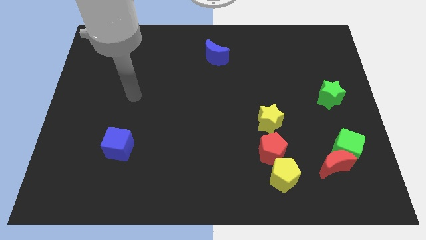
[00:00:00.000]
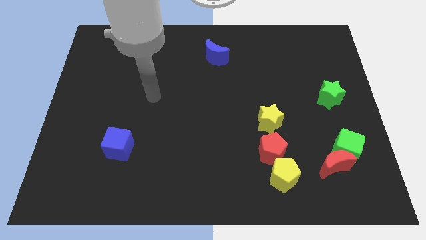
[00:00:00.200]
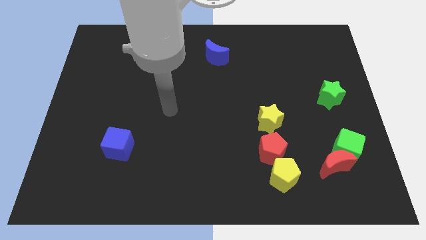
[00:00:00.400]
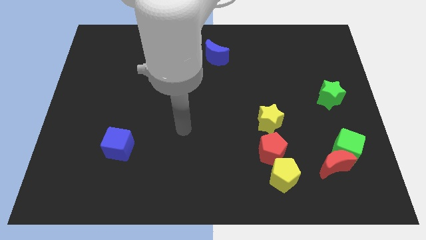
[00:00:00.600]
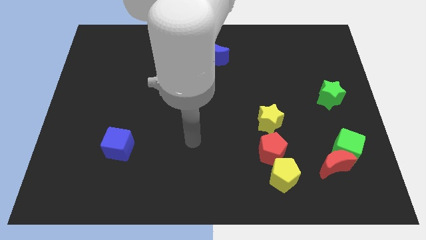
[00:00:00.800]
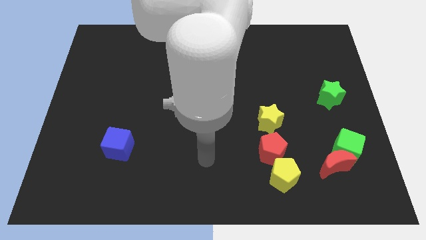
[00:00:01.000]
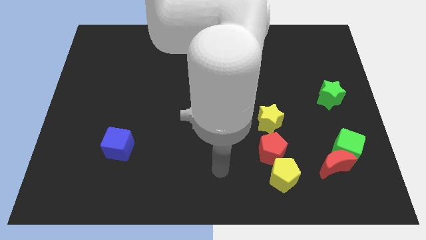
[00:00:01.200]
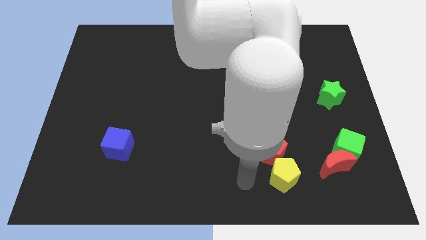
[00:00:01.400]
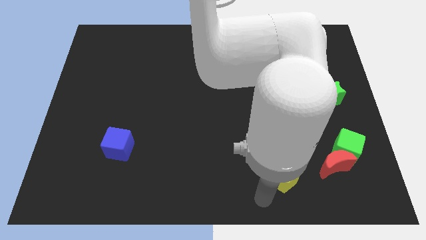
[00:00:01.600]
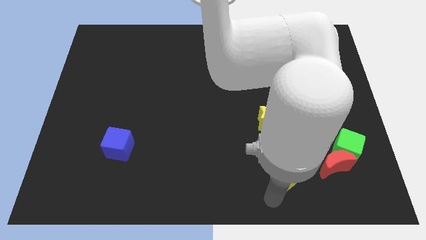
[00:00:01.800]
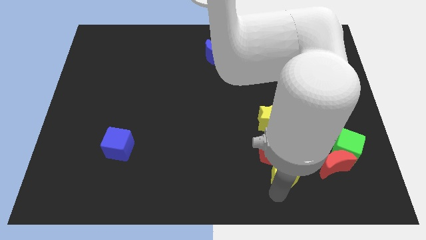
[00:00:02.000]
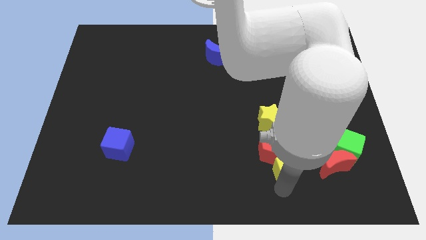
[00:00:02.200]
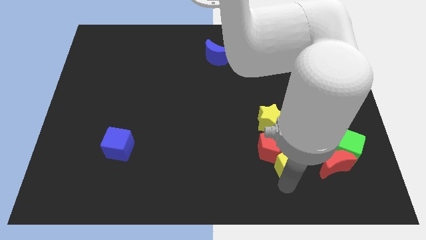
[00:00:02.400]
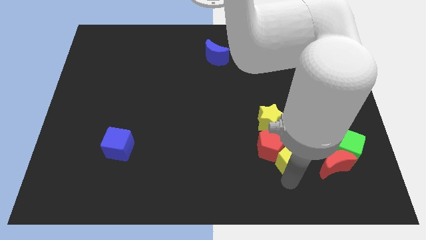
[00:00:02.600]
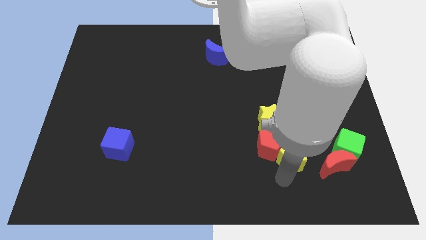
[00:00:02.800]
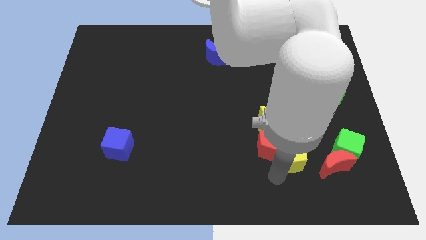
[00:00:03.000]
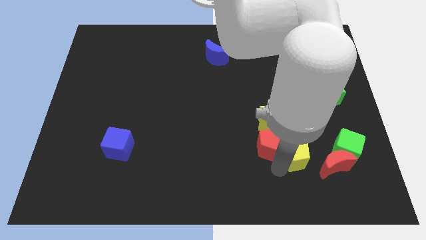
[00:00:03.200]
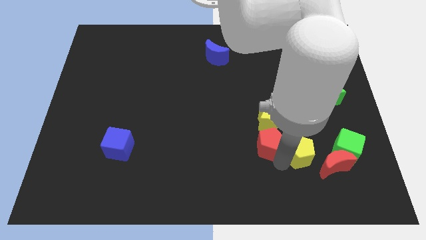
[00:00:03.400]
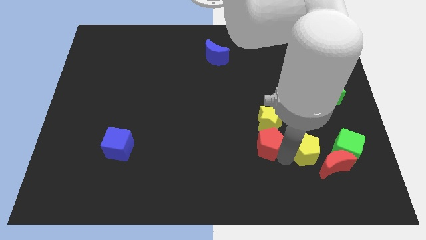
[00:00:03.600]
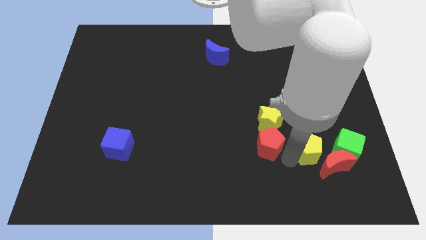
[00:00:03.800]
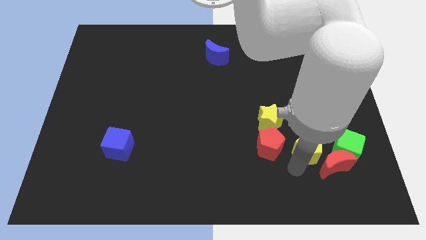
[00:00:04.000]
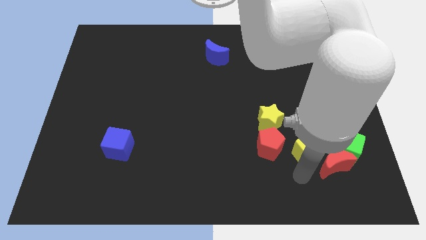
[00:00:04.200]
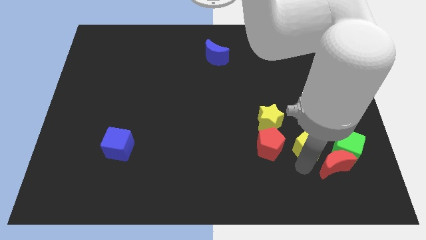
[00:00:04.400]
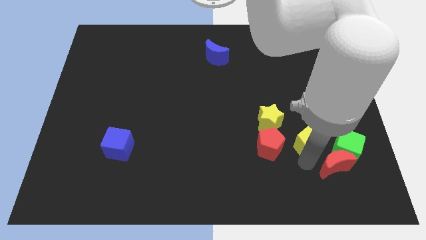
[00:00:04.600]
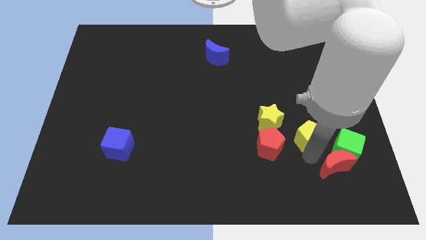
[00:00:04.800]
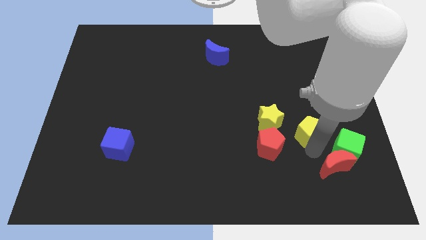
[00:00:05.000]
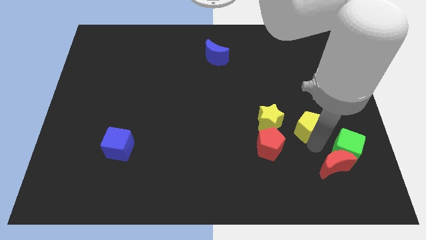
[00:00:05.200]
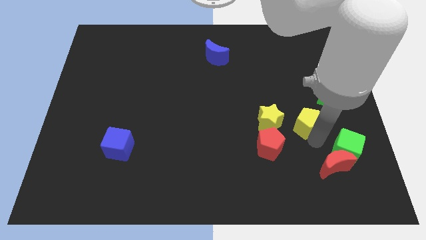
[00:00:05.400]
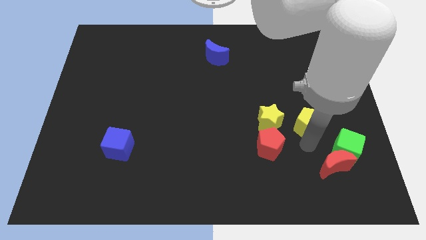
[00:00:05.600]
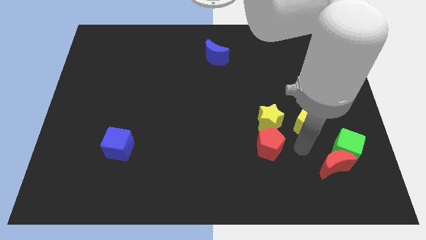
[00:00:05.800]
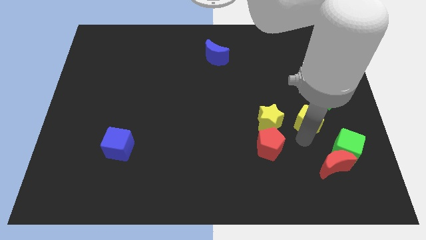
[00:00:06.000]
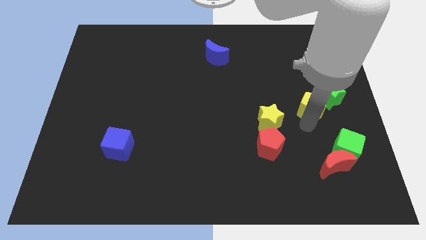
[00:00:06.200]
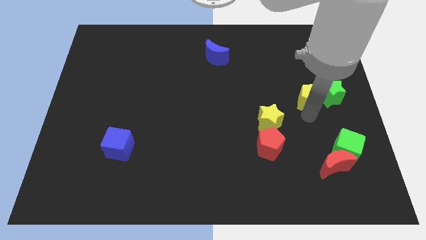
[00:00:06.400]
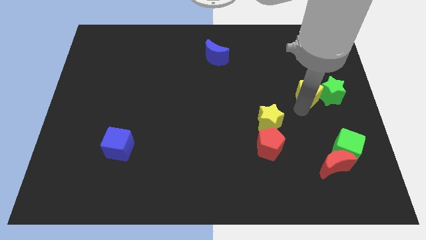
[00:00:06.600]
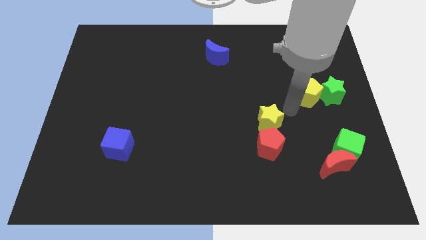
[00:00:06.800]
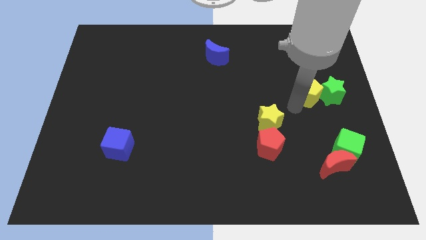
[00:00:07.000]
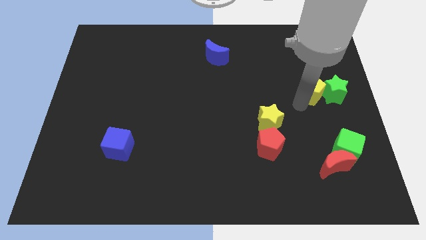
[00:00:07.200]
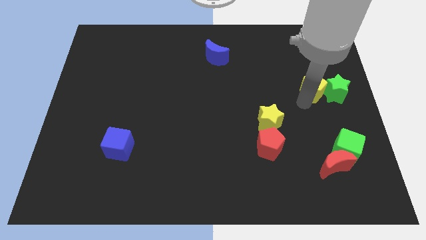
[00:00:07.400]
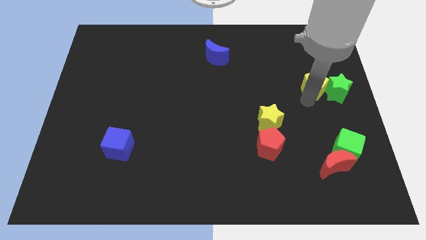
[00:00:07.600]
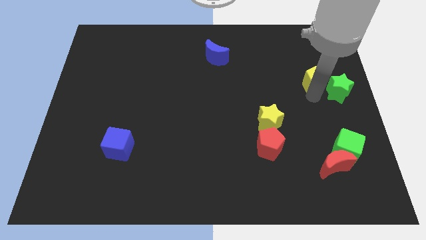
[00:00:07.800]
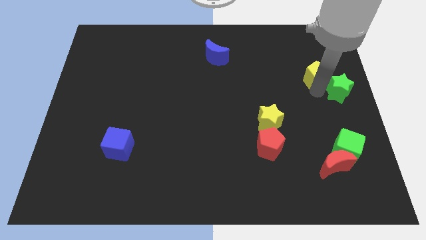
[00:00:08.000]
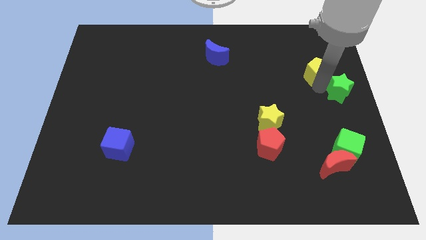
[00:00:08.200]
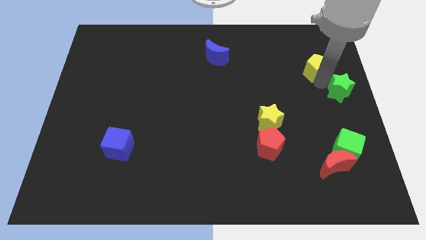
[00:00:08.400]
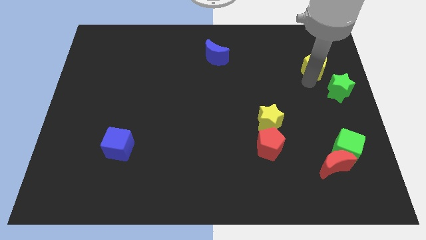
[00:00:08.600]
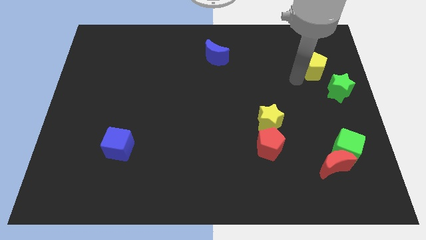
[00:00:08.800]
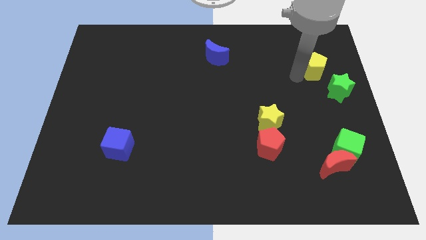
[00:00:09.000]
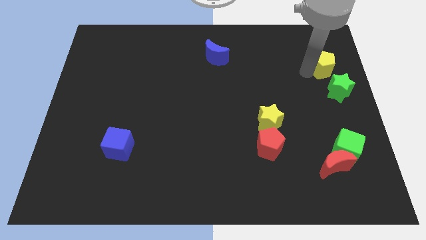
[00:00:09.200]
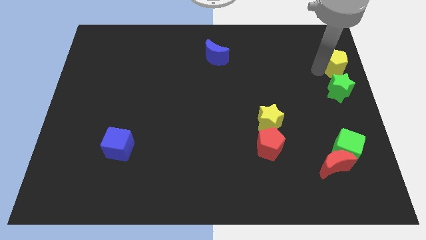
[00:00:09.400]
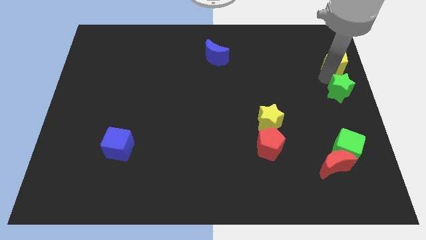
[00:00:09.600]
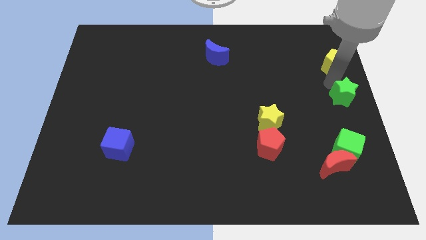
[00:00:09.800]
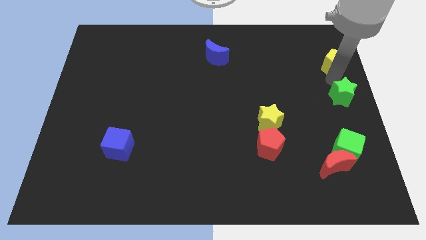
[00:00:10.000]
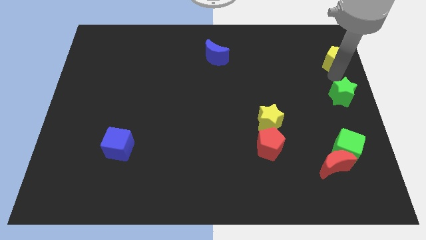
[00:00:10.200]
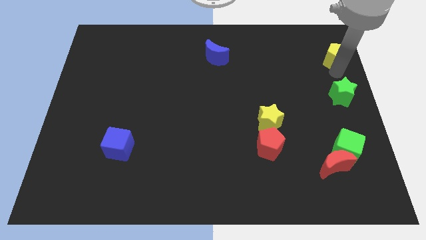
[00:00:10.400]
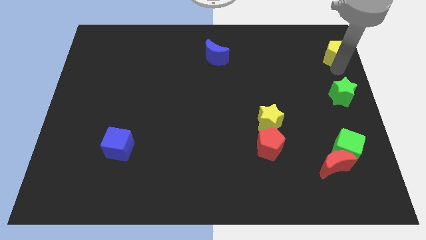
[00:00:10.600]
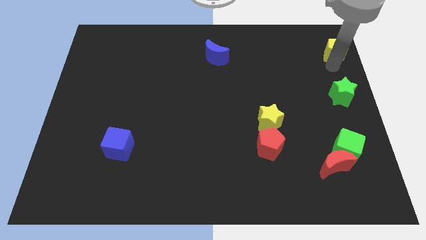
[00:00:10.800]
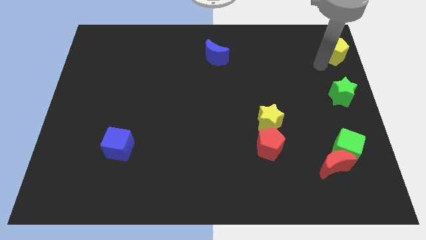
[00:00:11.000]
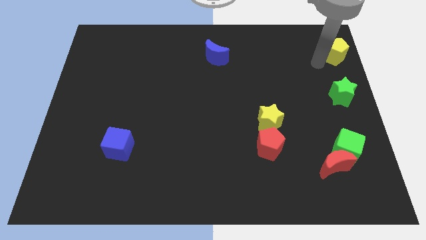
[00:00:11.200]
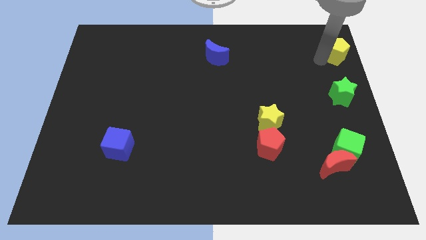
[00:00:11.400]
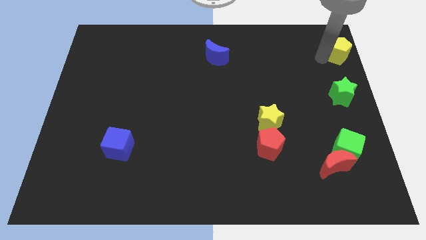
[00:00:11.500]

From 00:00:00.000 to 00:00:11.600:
push the yellow pentagon to the top right corner

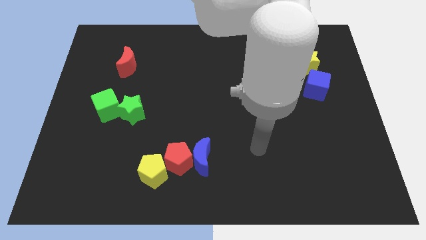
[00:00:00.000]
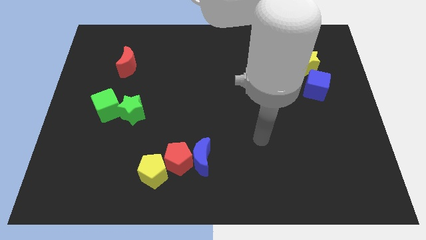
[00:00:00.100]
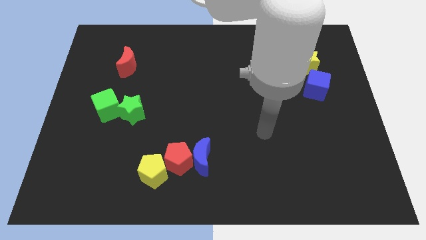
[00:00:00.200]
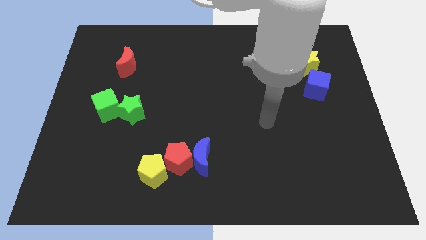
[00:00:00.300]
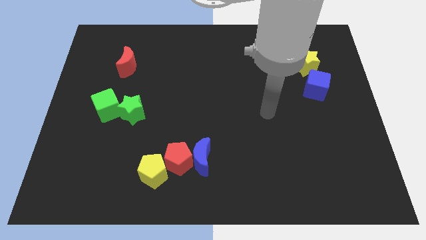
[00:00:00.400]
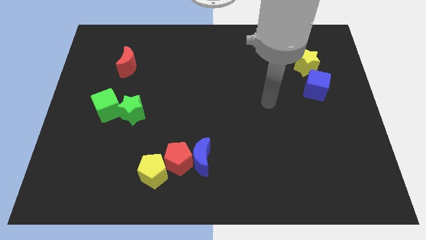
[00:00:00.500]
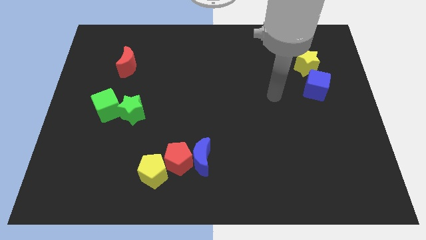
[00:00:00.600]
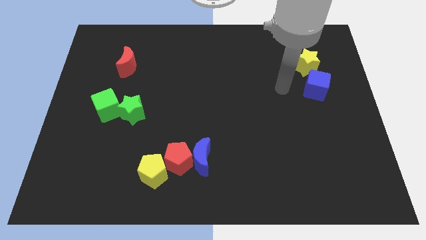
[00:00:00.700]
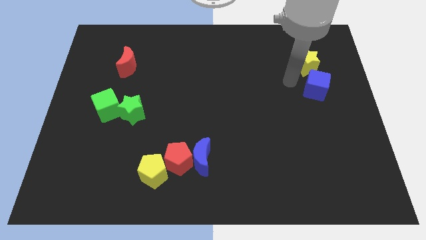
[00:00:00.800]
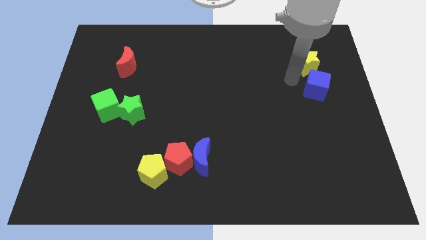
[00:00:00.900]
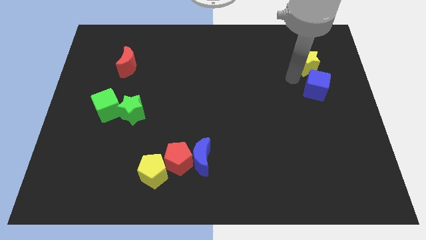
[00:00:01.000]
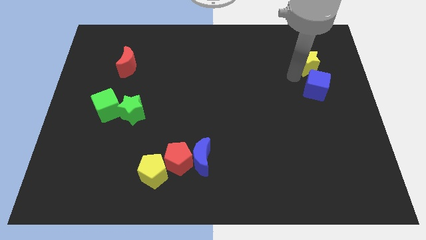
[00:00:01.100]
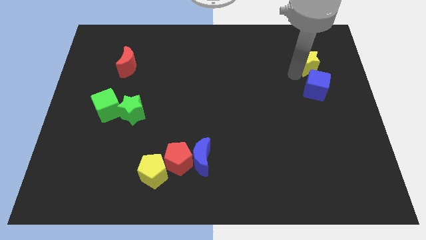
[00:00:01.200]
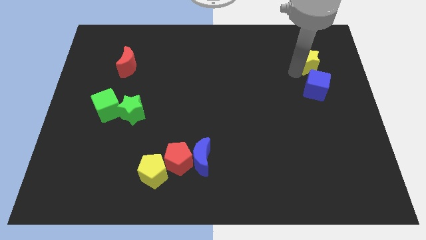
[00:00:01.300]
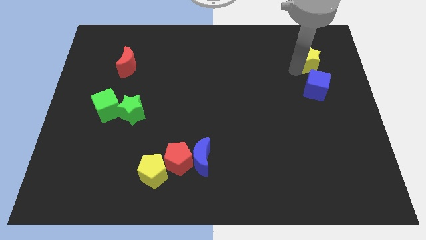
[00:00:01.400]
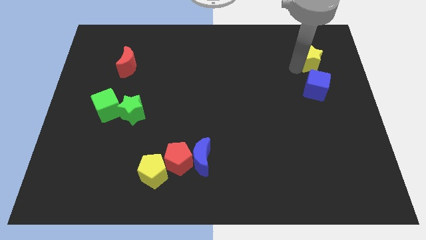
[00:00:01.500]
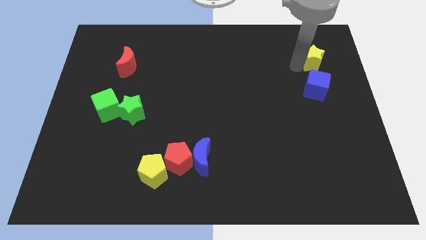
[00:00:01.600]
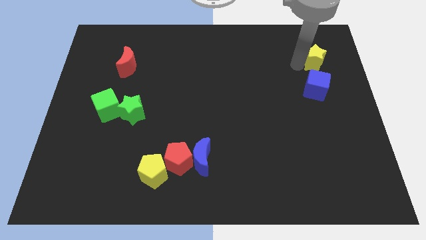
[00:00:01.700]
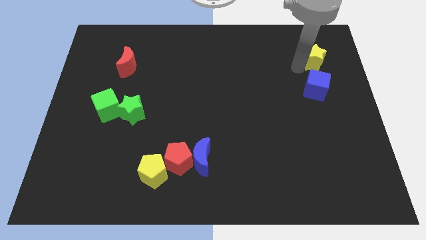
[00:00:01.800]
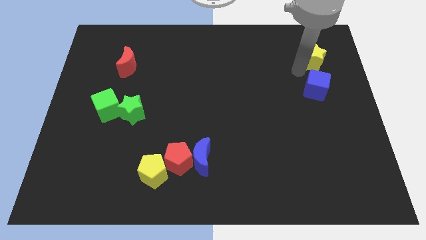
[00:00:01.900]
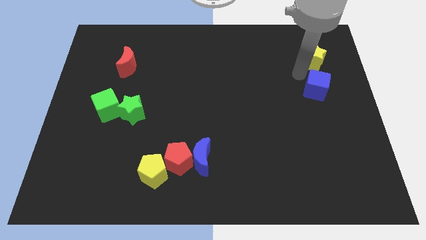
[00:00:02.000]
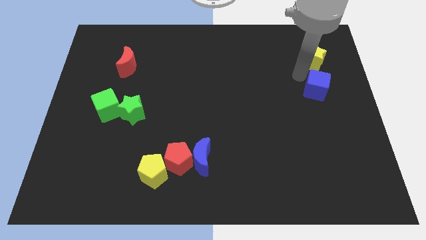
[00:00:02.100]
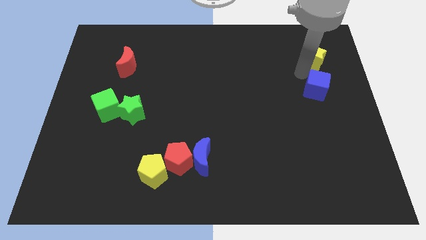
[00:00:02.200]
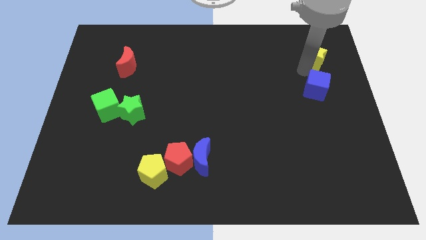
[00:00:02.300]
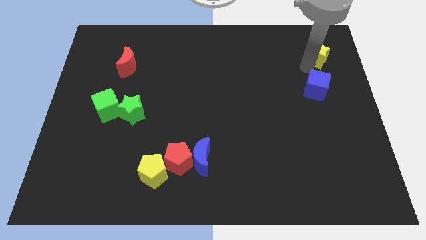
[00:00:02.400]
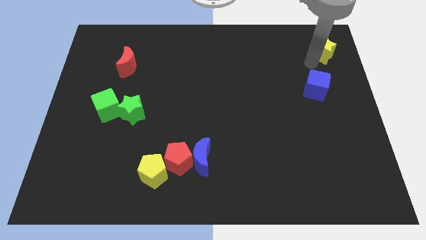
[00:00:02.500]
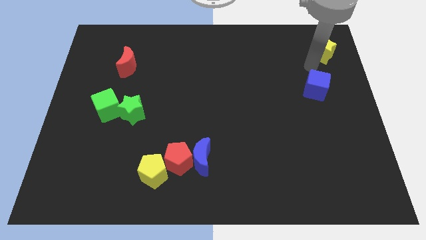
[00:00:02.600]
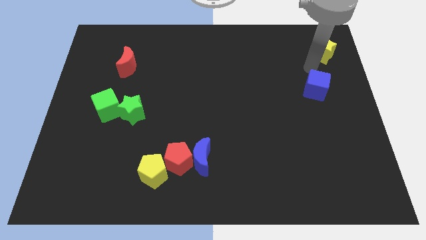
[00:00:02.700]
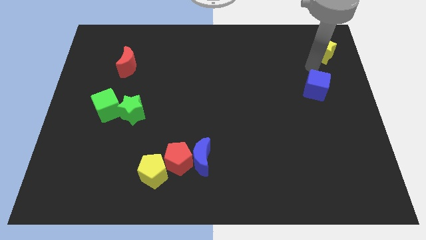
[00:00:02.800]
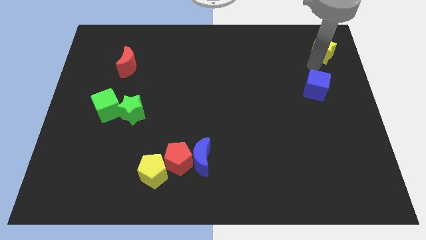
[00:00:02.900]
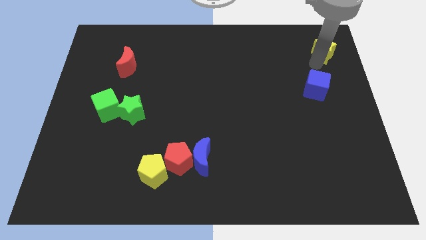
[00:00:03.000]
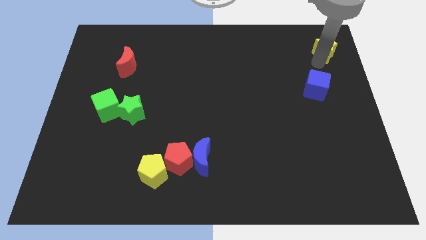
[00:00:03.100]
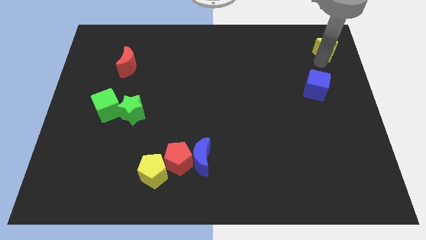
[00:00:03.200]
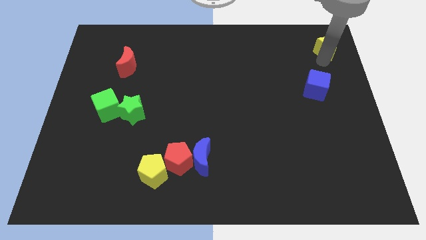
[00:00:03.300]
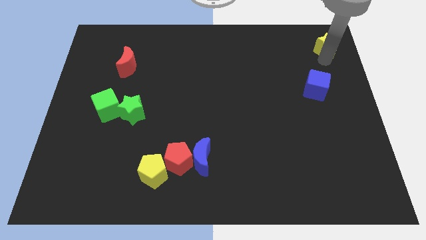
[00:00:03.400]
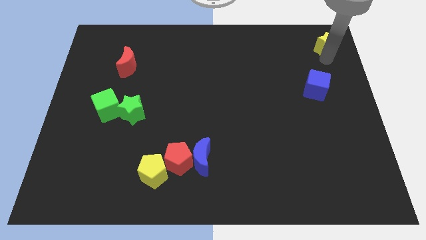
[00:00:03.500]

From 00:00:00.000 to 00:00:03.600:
slide the yellow star to the top right of the board
